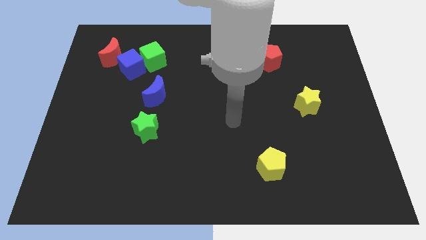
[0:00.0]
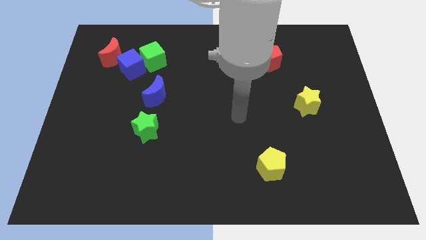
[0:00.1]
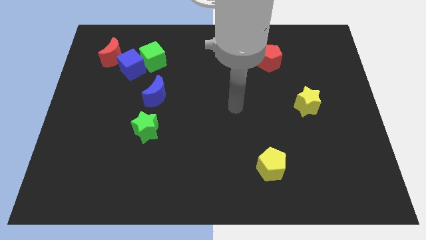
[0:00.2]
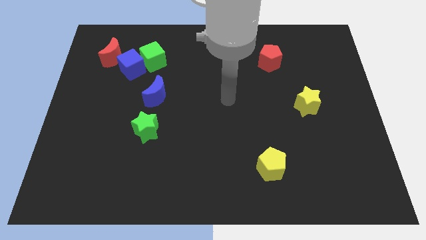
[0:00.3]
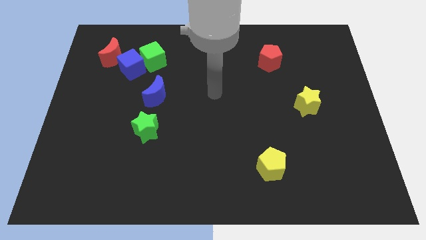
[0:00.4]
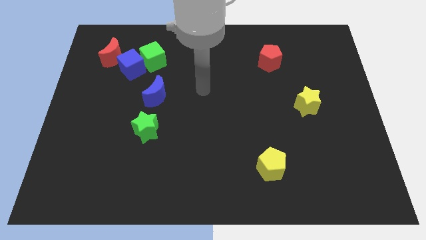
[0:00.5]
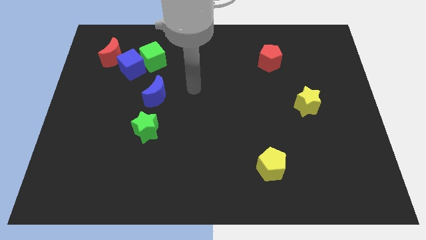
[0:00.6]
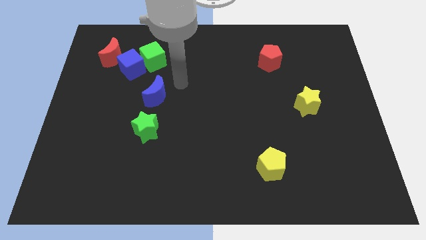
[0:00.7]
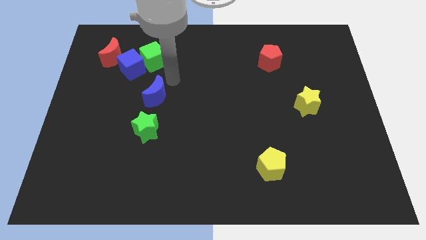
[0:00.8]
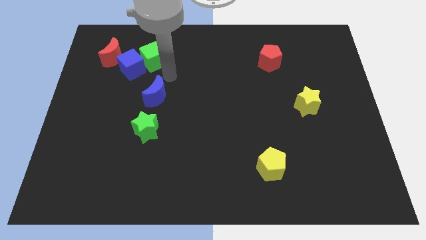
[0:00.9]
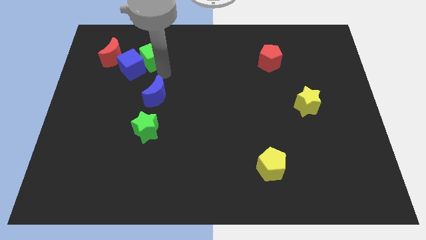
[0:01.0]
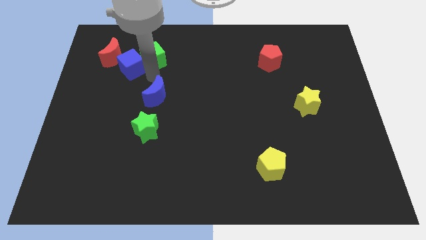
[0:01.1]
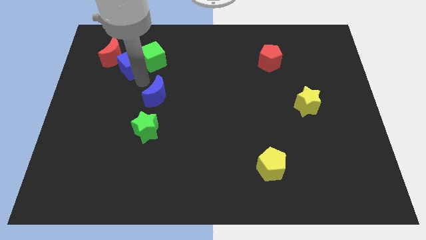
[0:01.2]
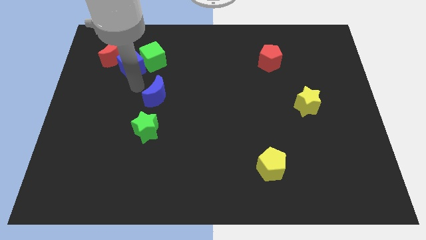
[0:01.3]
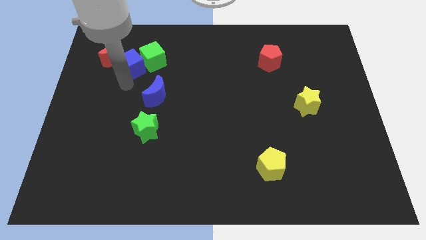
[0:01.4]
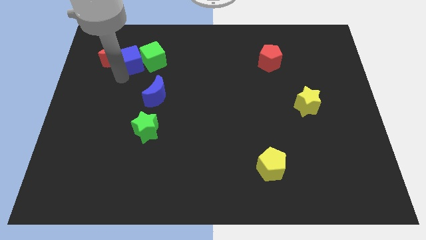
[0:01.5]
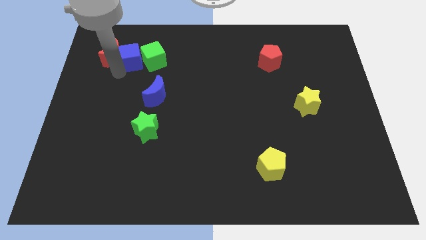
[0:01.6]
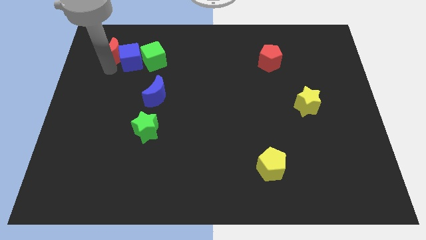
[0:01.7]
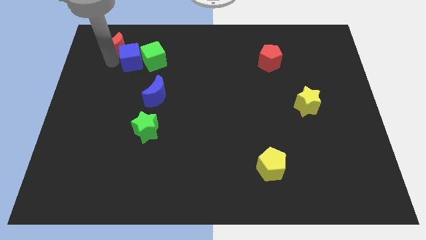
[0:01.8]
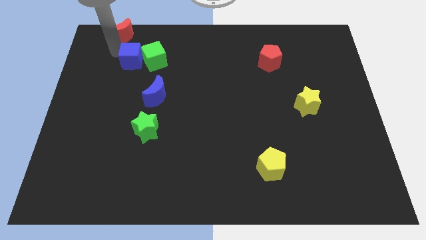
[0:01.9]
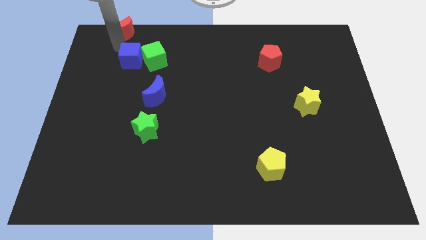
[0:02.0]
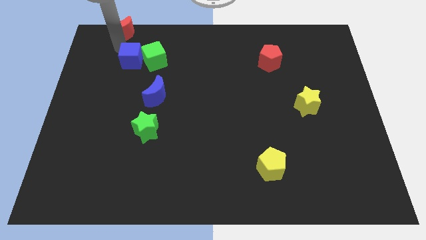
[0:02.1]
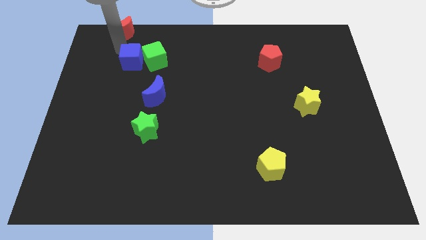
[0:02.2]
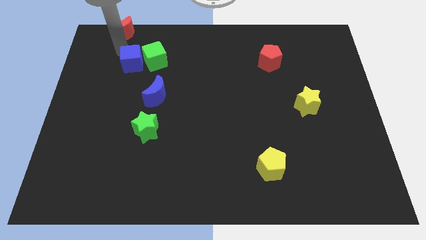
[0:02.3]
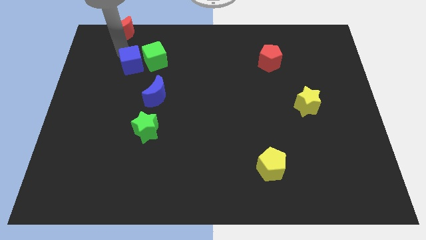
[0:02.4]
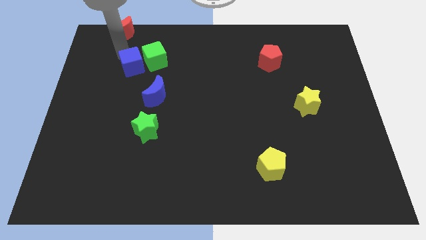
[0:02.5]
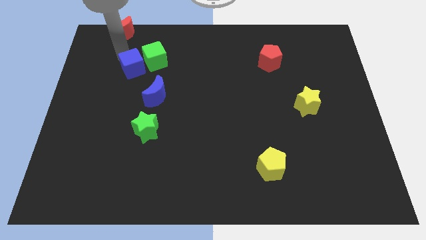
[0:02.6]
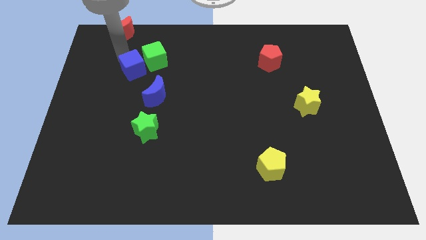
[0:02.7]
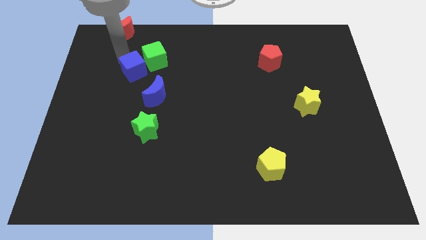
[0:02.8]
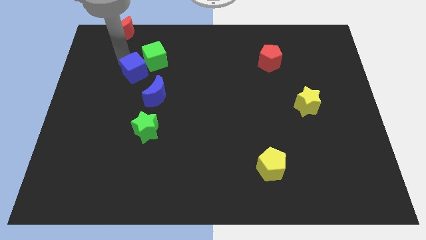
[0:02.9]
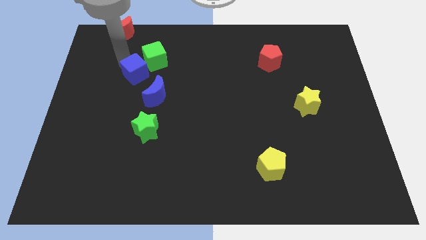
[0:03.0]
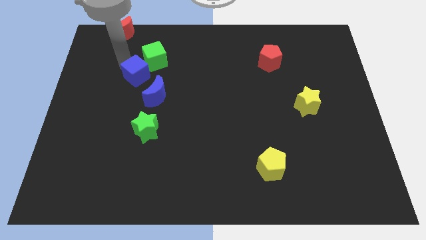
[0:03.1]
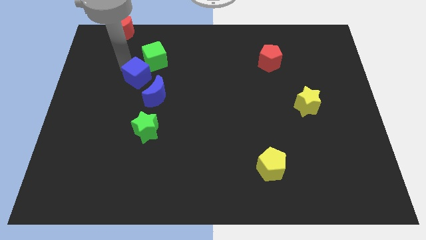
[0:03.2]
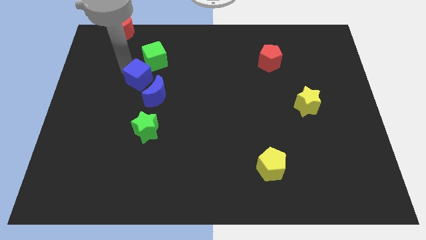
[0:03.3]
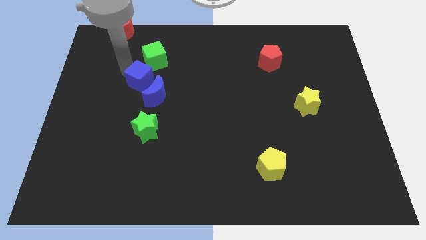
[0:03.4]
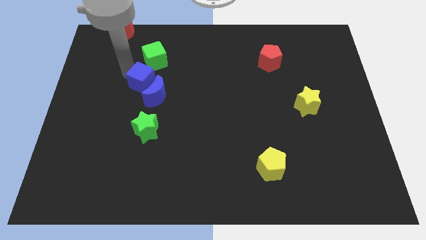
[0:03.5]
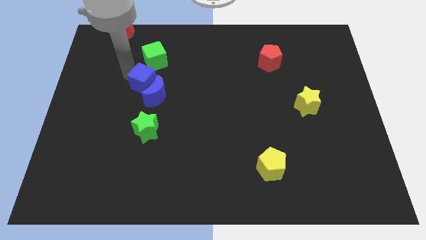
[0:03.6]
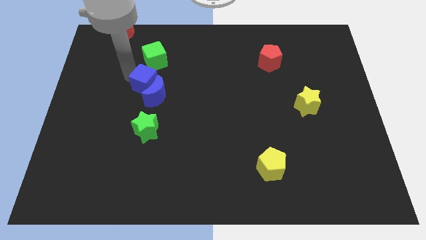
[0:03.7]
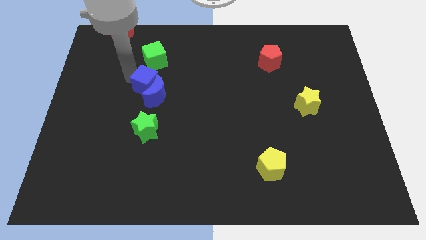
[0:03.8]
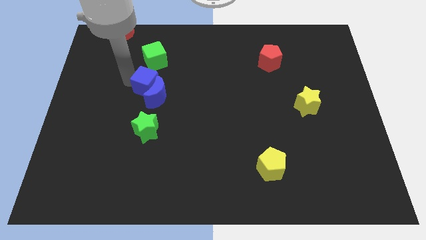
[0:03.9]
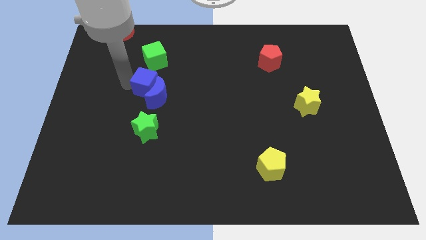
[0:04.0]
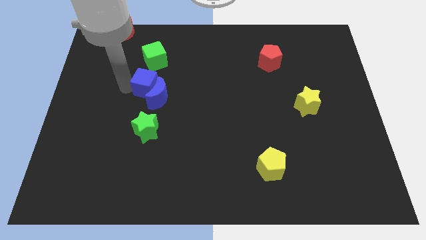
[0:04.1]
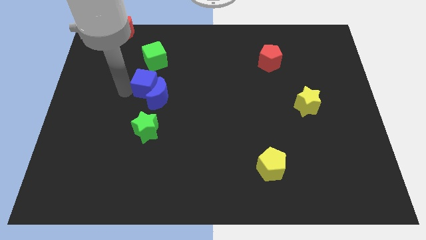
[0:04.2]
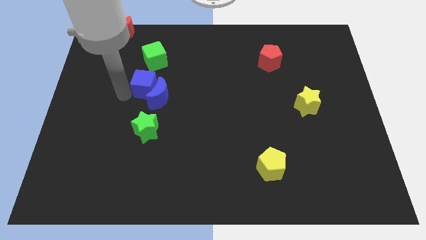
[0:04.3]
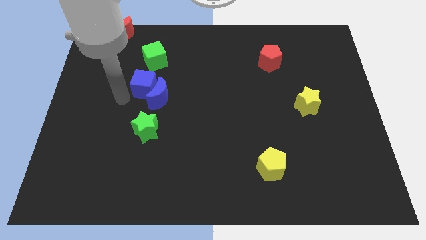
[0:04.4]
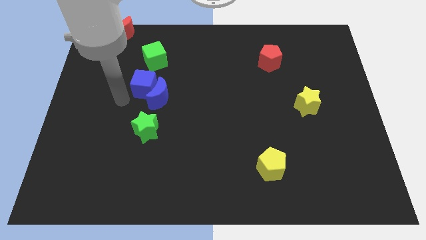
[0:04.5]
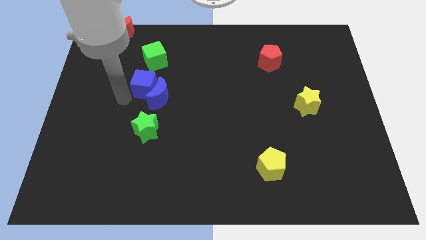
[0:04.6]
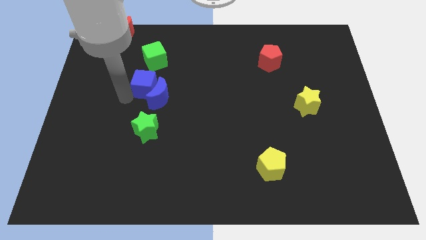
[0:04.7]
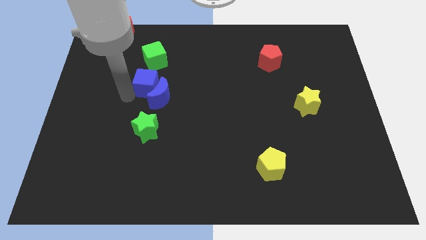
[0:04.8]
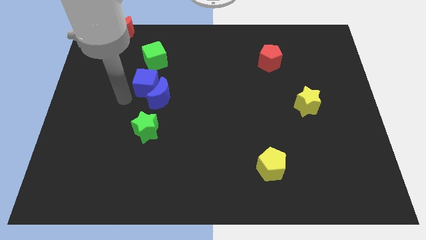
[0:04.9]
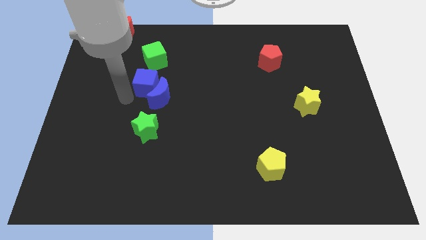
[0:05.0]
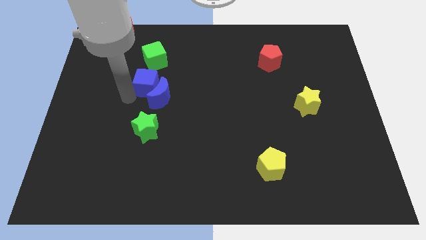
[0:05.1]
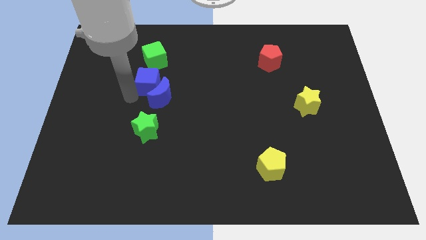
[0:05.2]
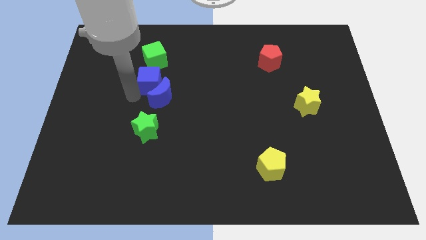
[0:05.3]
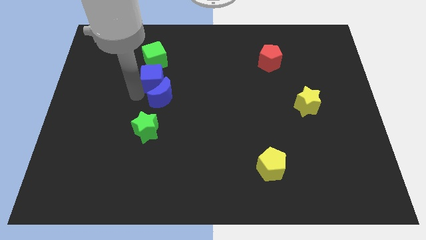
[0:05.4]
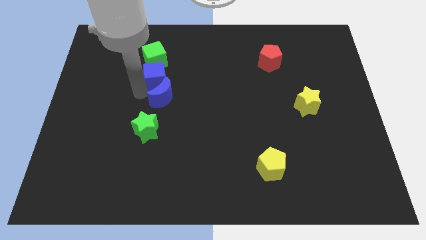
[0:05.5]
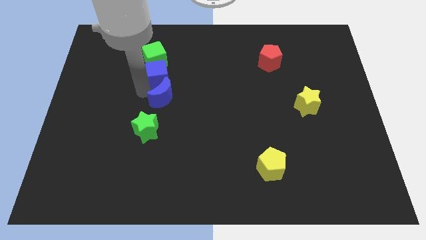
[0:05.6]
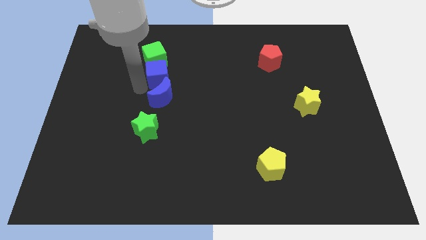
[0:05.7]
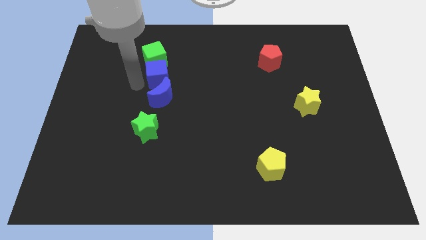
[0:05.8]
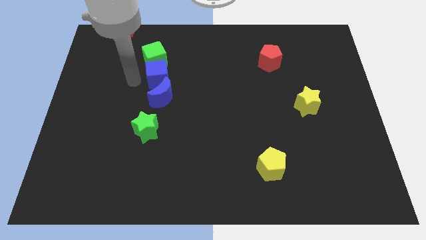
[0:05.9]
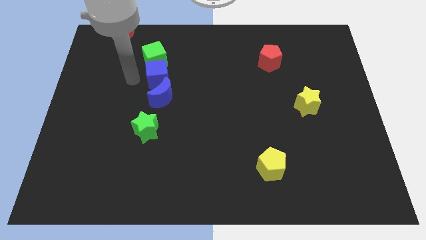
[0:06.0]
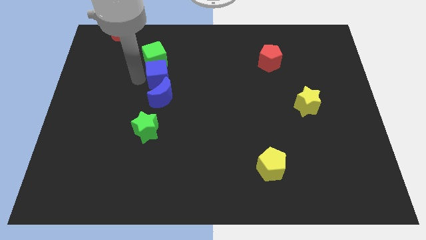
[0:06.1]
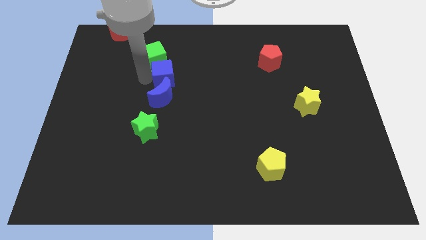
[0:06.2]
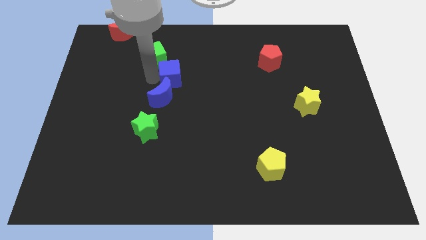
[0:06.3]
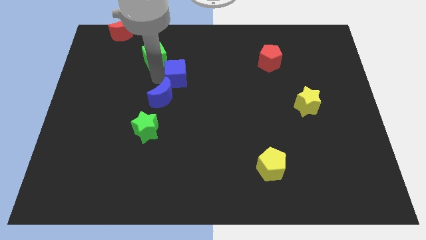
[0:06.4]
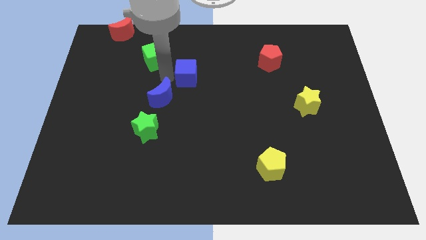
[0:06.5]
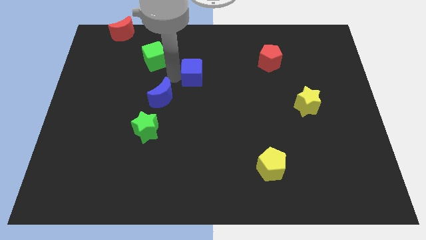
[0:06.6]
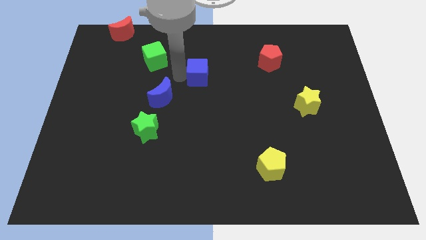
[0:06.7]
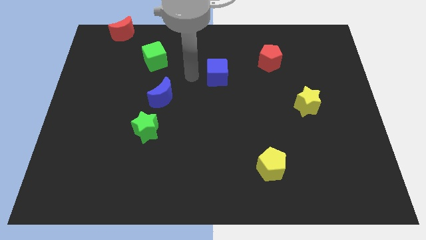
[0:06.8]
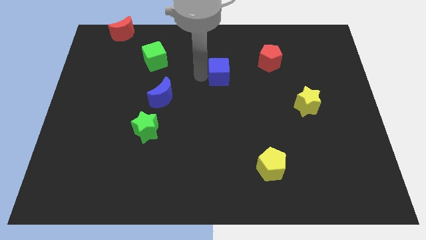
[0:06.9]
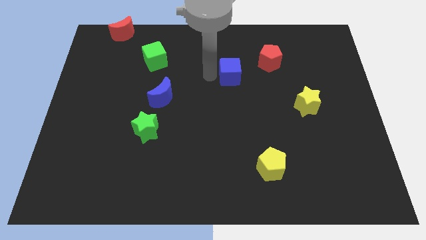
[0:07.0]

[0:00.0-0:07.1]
move the blue cube to the bottom left side of the red pentagon
